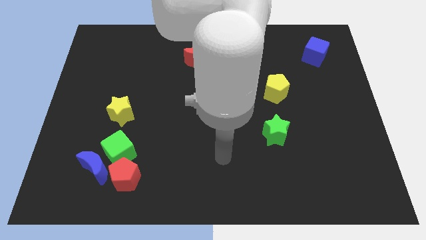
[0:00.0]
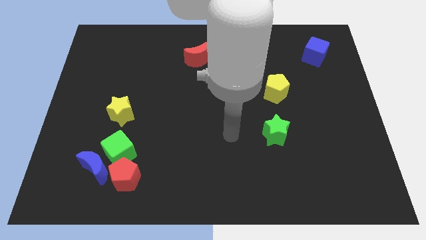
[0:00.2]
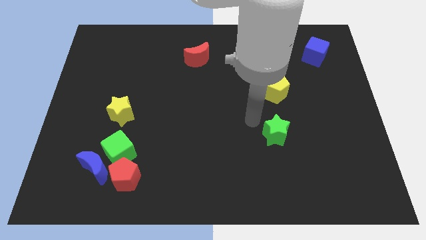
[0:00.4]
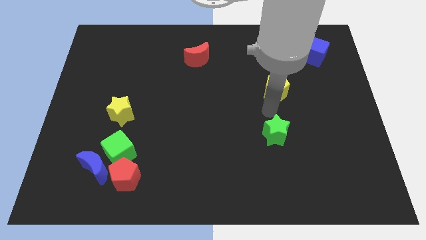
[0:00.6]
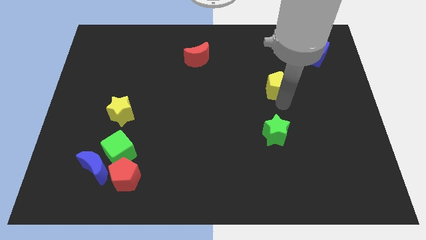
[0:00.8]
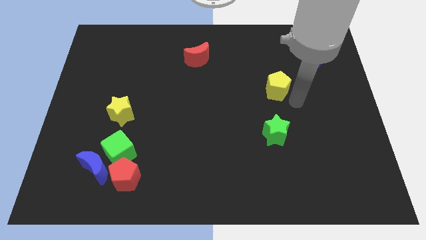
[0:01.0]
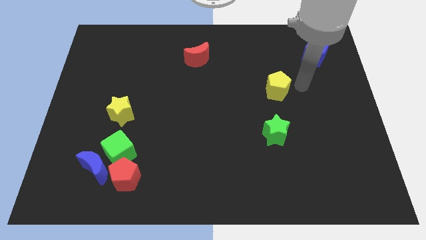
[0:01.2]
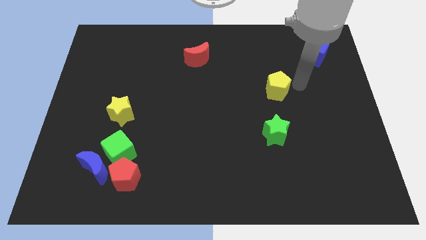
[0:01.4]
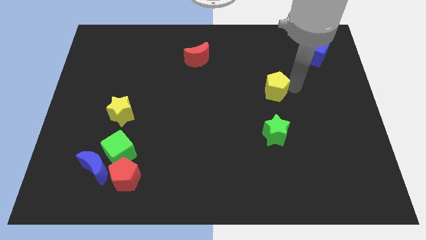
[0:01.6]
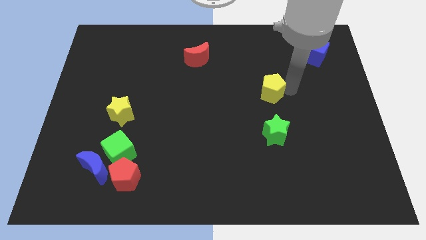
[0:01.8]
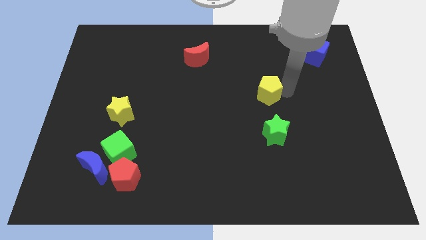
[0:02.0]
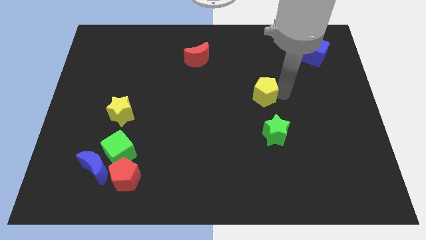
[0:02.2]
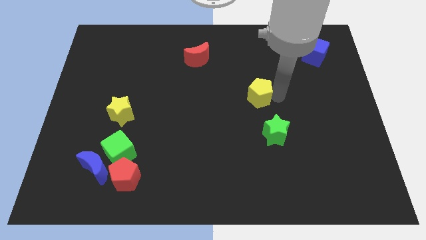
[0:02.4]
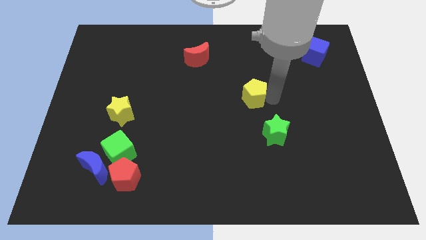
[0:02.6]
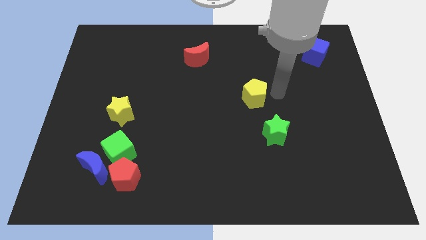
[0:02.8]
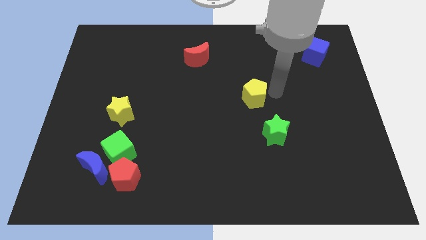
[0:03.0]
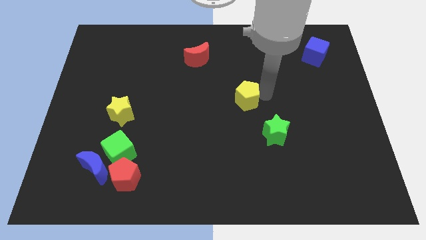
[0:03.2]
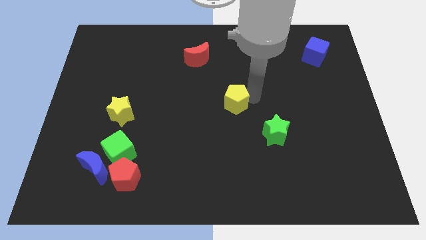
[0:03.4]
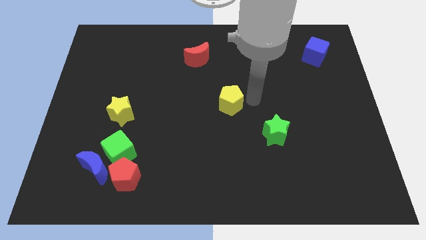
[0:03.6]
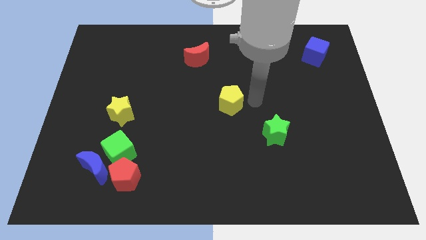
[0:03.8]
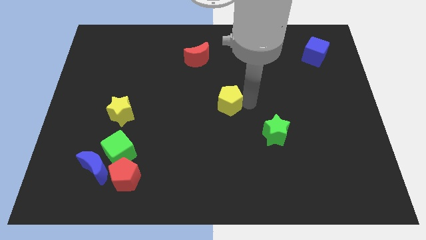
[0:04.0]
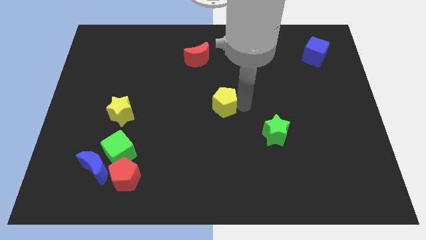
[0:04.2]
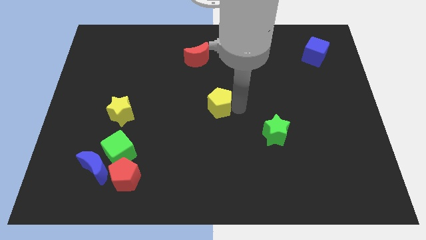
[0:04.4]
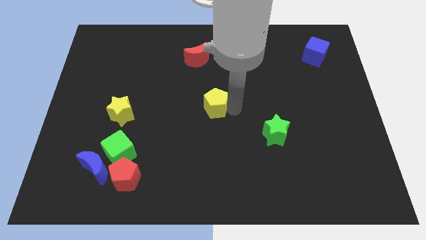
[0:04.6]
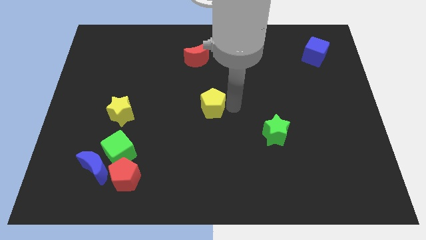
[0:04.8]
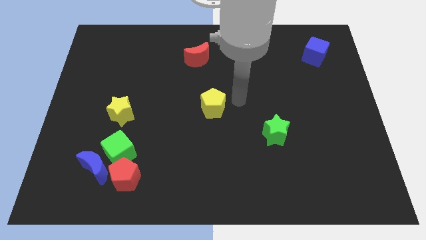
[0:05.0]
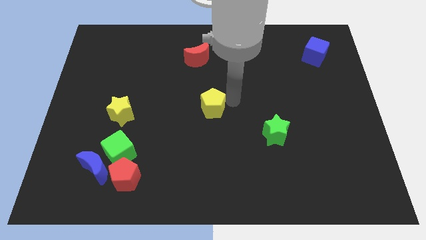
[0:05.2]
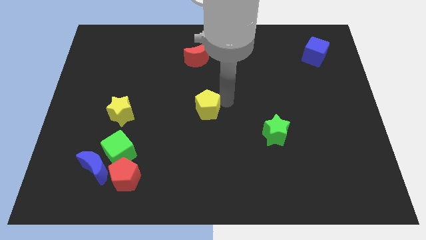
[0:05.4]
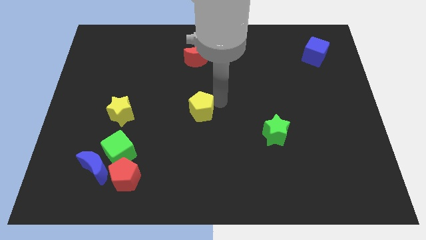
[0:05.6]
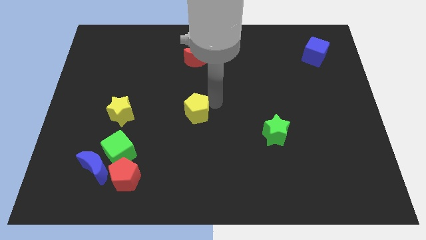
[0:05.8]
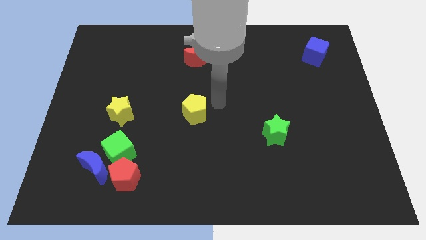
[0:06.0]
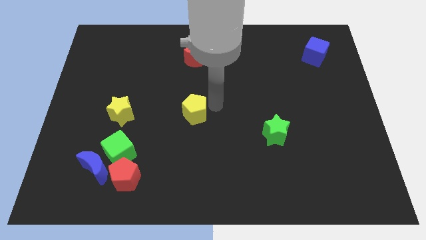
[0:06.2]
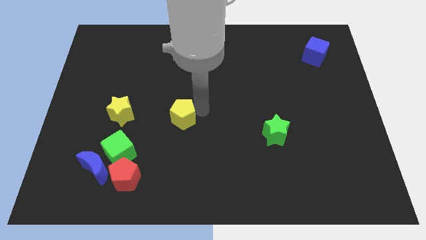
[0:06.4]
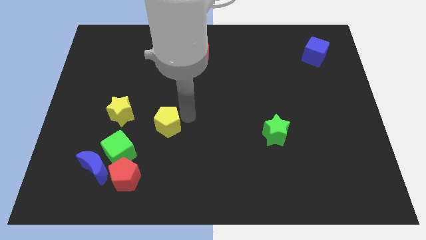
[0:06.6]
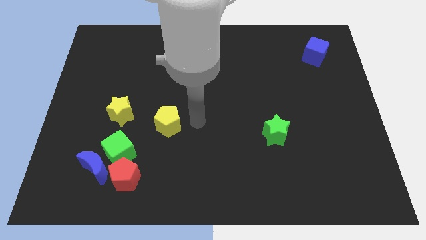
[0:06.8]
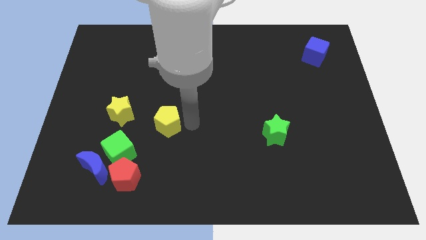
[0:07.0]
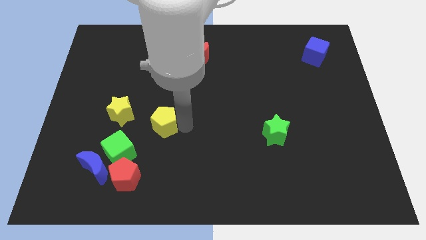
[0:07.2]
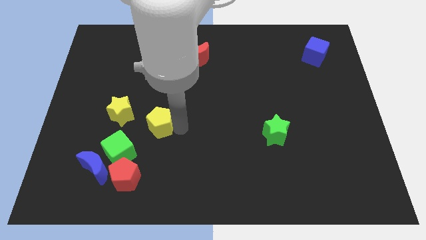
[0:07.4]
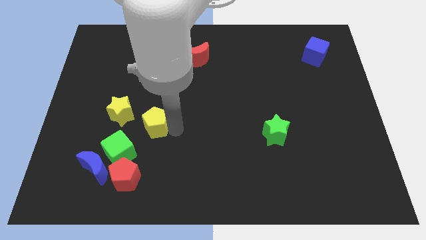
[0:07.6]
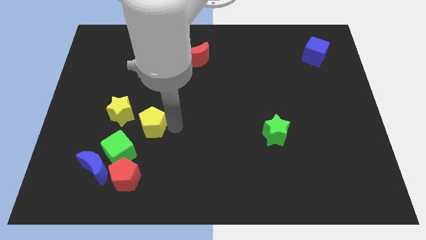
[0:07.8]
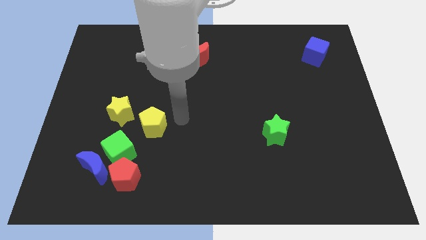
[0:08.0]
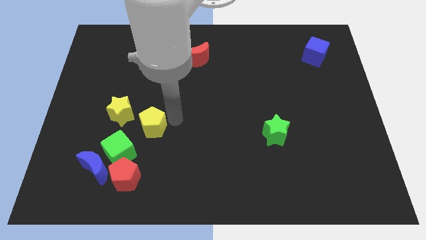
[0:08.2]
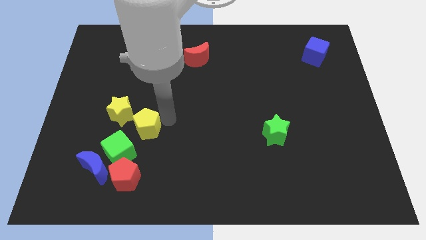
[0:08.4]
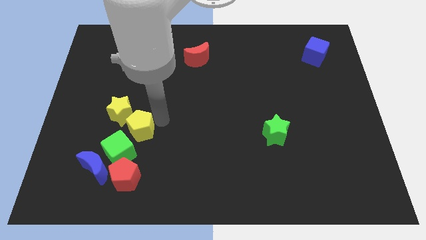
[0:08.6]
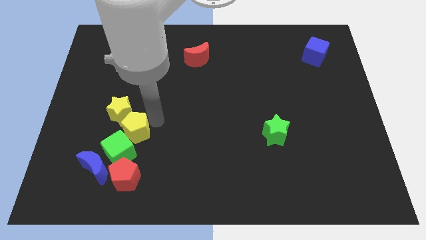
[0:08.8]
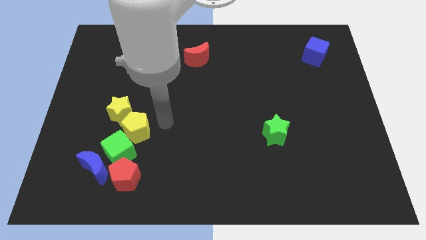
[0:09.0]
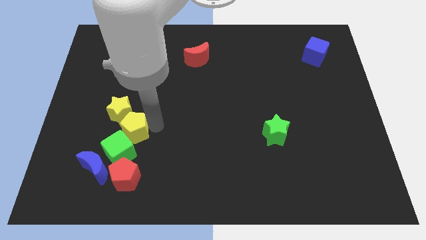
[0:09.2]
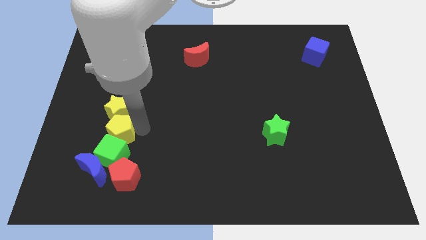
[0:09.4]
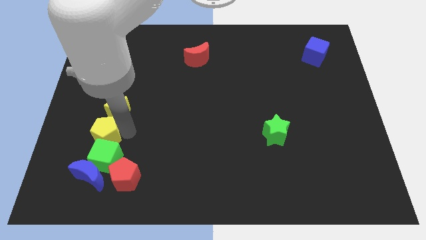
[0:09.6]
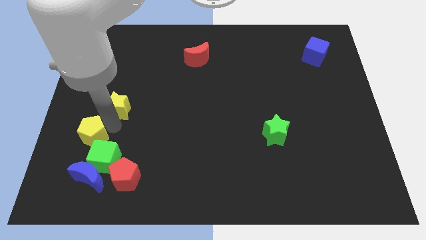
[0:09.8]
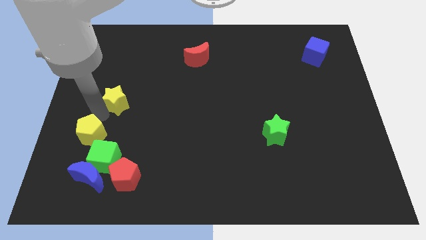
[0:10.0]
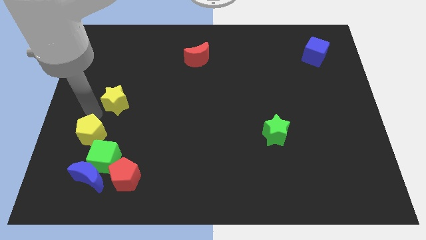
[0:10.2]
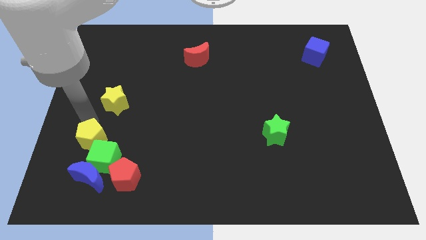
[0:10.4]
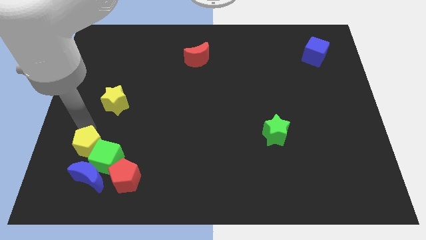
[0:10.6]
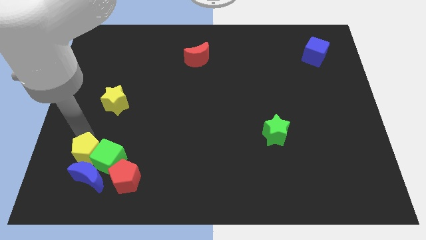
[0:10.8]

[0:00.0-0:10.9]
move the yellow pentagon close to the blue moon

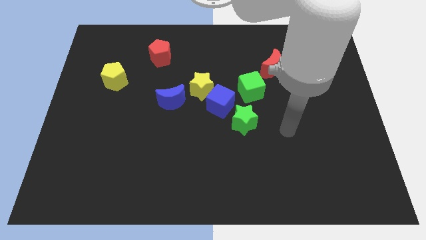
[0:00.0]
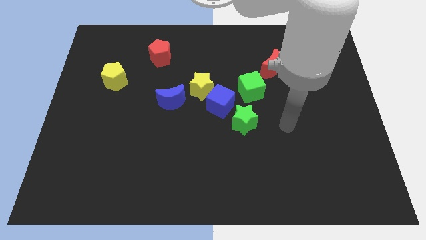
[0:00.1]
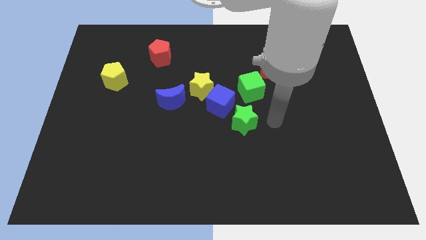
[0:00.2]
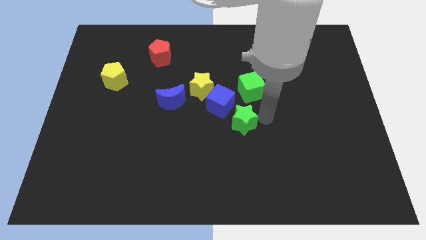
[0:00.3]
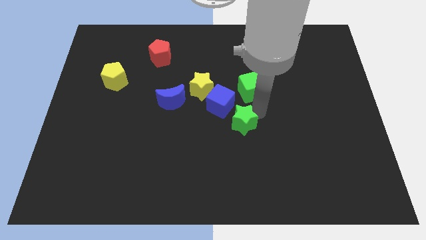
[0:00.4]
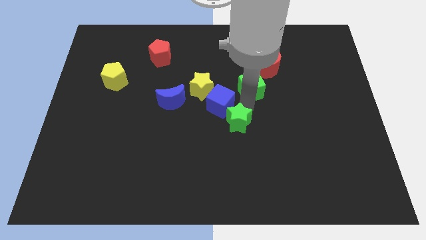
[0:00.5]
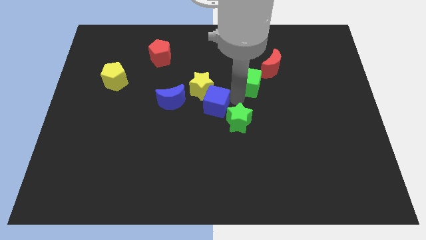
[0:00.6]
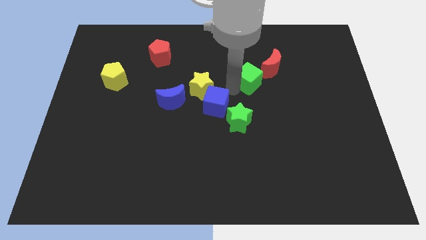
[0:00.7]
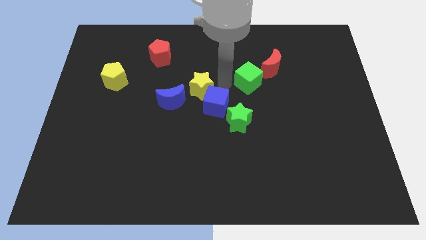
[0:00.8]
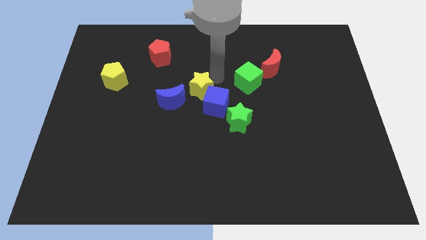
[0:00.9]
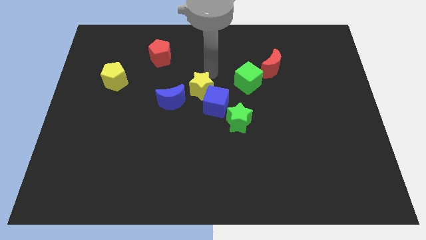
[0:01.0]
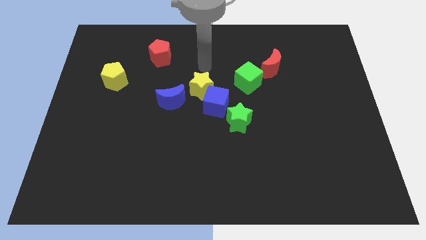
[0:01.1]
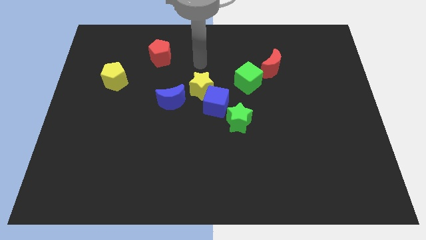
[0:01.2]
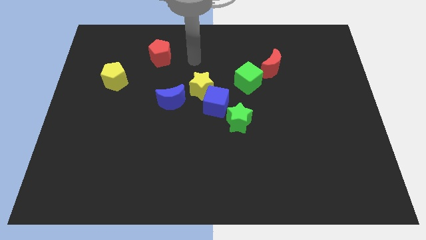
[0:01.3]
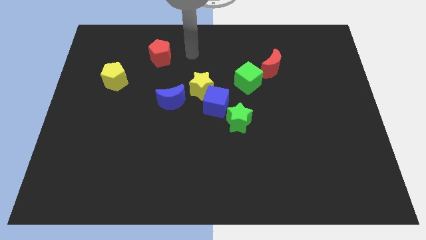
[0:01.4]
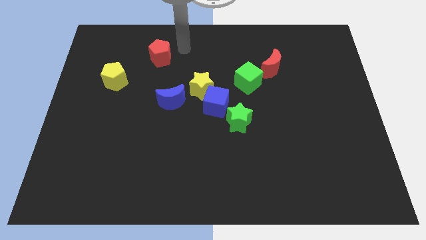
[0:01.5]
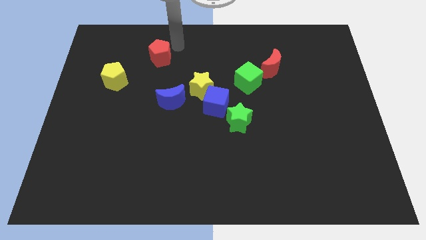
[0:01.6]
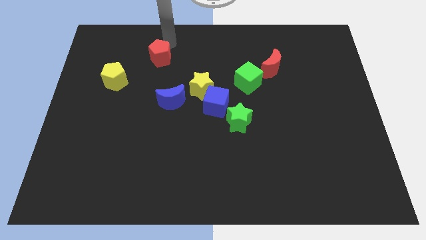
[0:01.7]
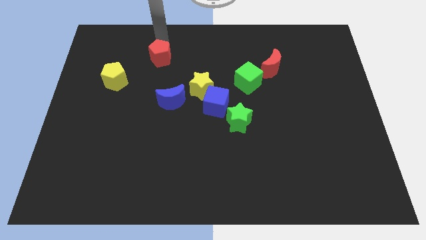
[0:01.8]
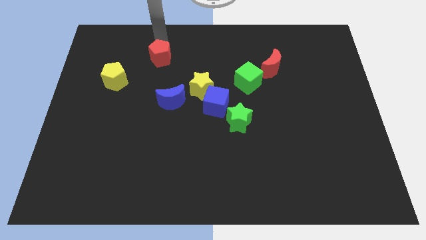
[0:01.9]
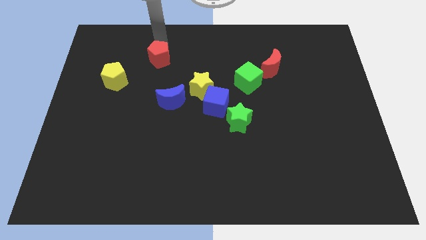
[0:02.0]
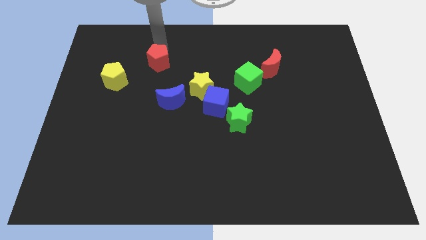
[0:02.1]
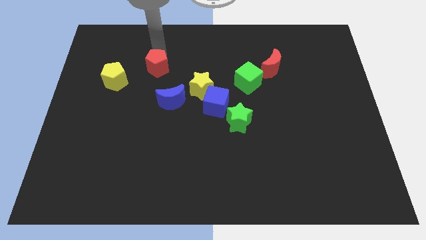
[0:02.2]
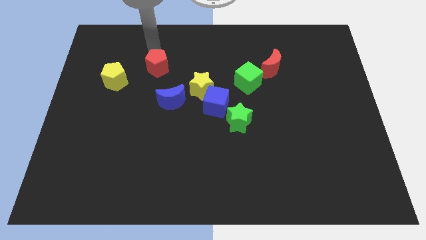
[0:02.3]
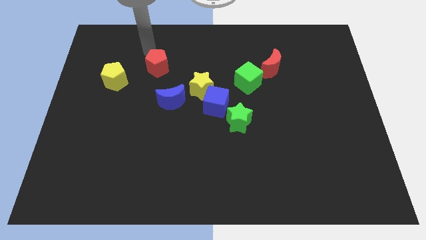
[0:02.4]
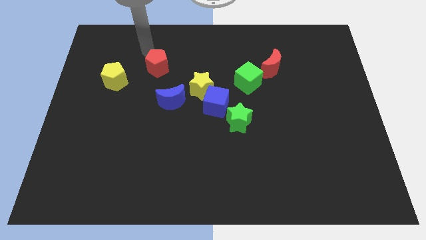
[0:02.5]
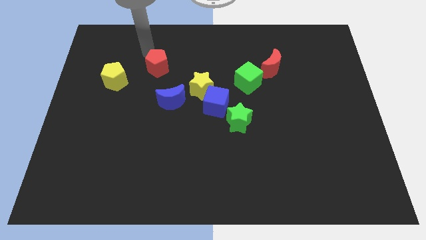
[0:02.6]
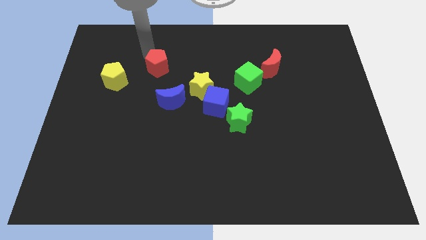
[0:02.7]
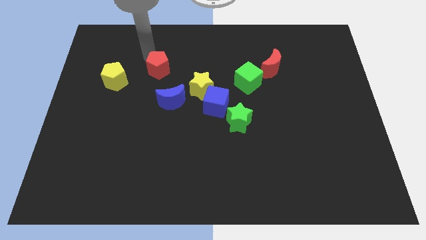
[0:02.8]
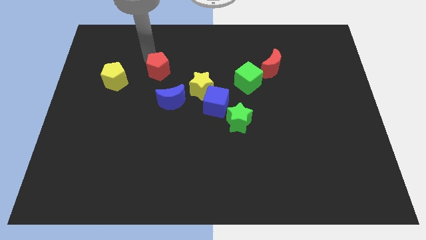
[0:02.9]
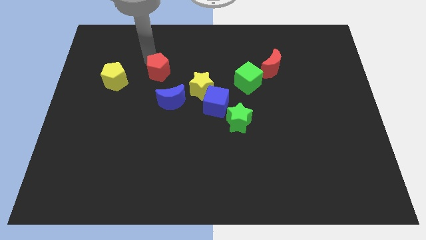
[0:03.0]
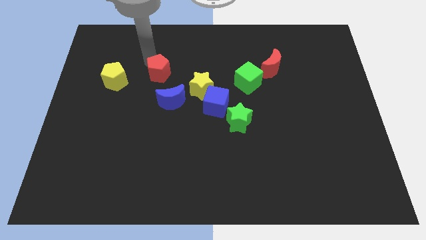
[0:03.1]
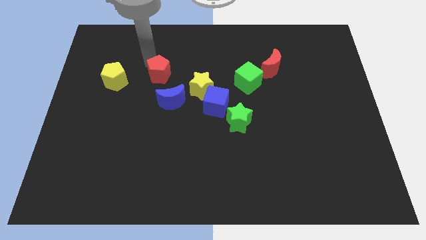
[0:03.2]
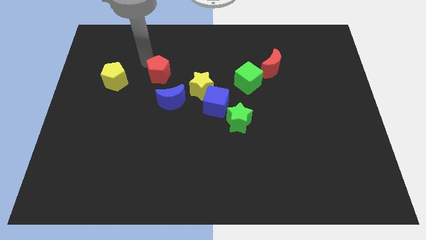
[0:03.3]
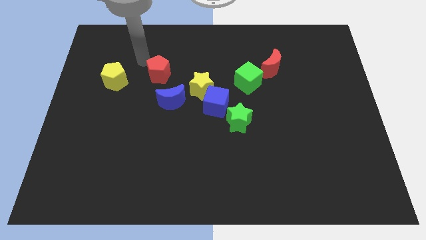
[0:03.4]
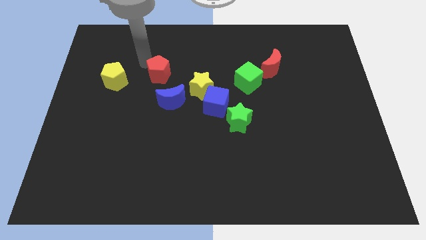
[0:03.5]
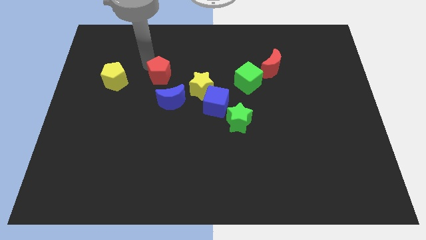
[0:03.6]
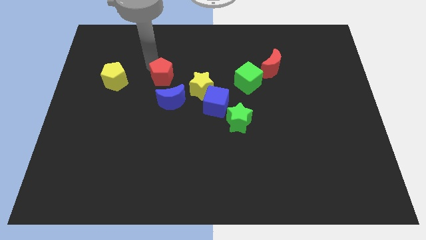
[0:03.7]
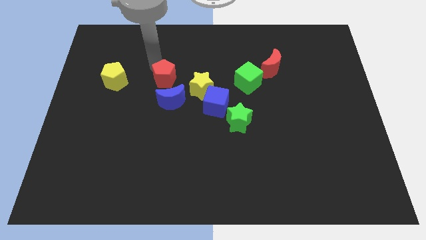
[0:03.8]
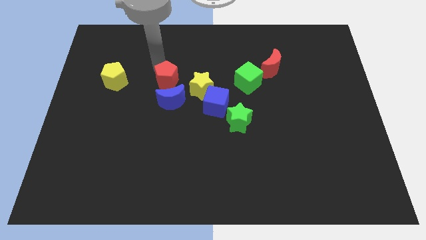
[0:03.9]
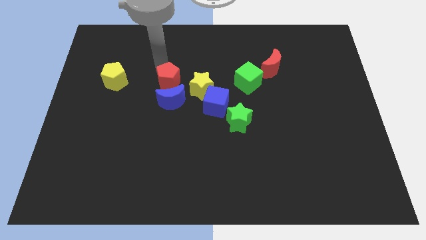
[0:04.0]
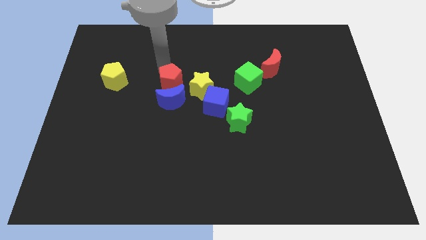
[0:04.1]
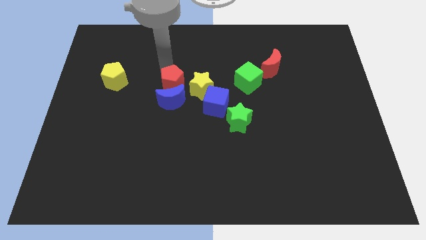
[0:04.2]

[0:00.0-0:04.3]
slide the red pentagon close to the blue moon
